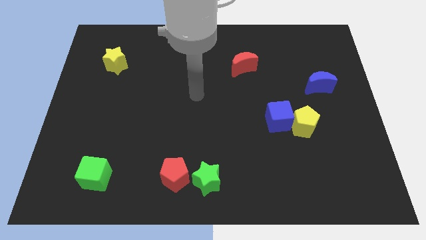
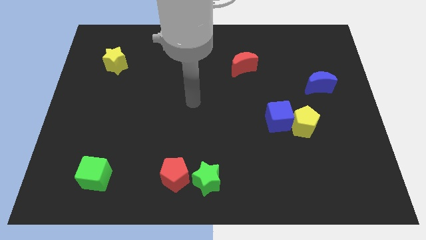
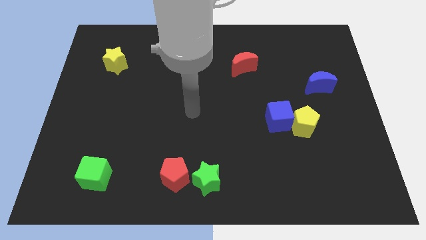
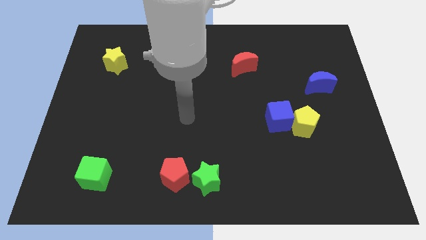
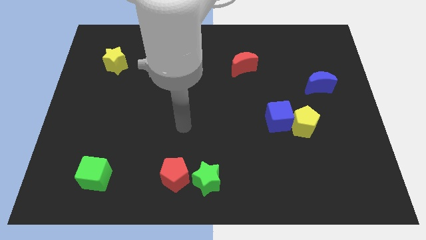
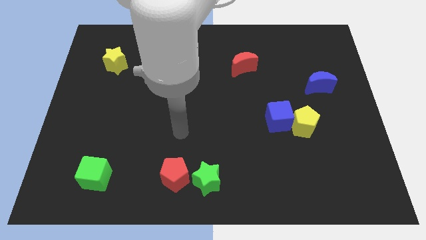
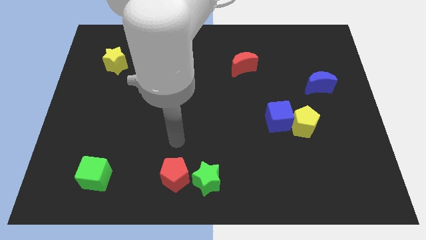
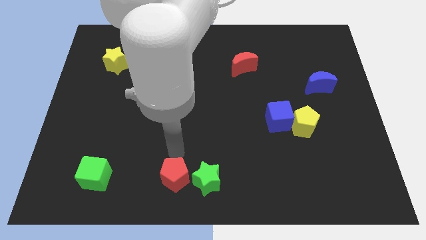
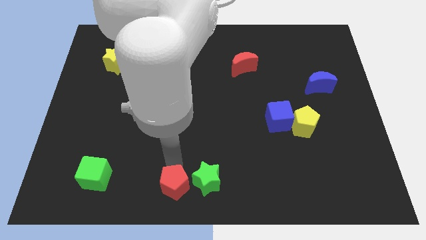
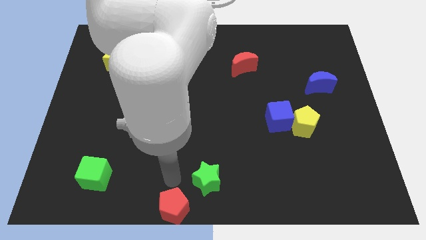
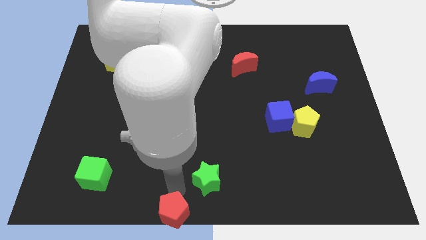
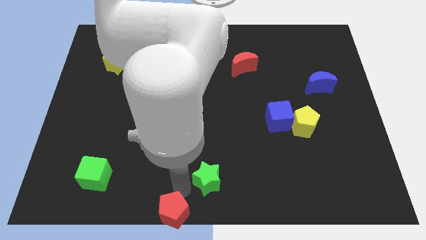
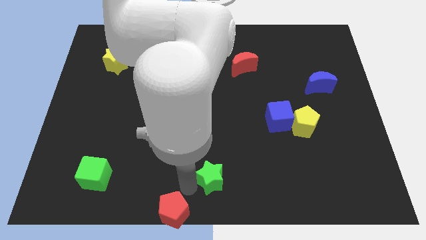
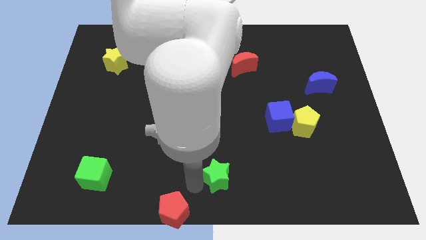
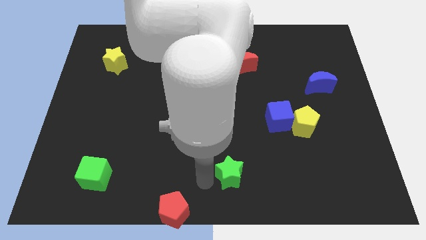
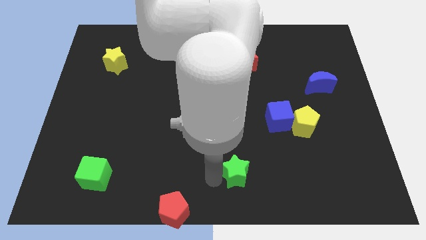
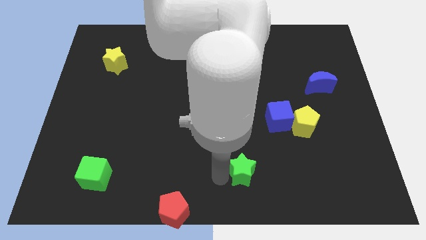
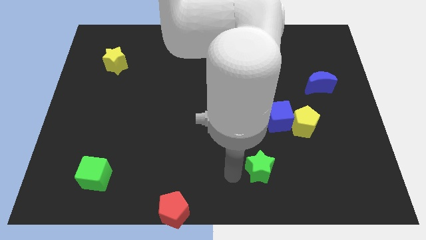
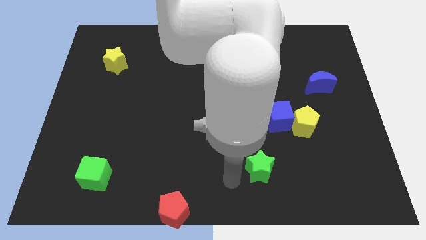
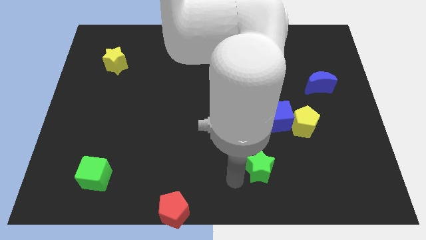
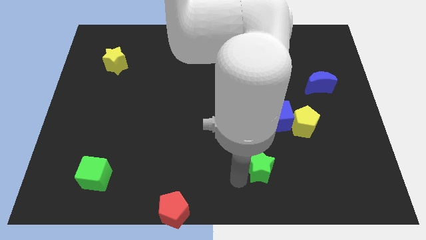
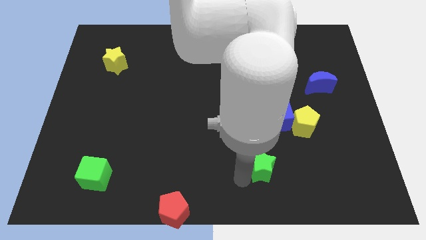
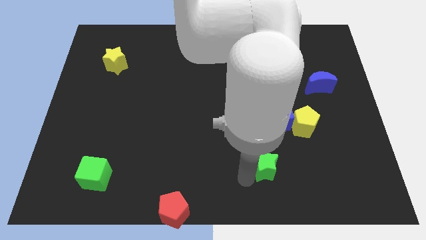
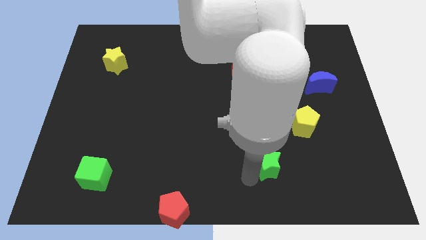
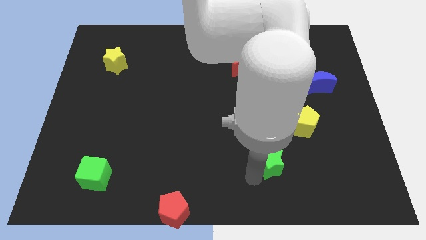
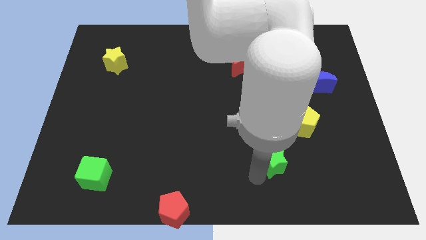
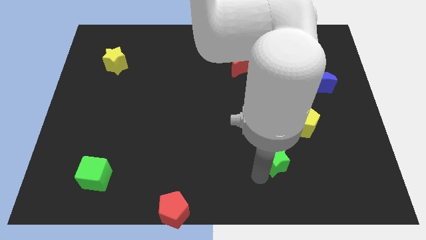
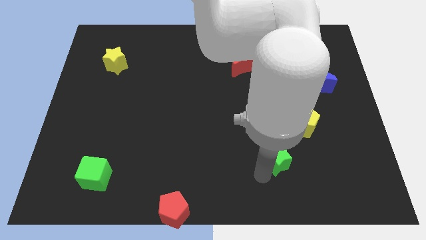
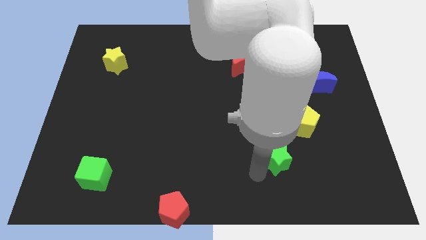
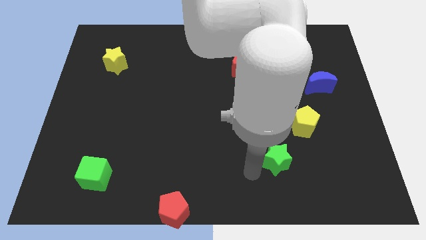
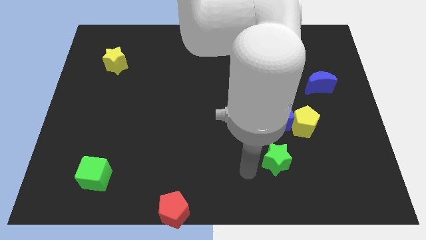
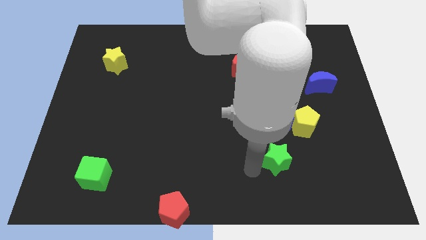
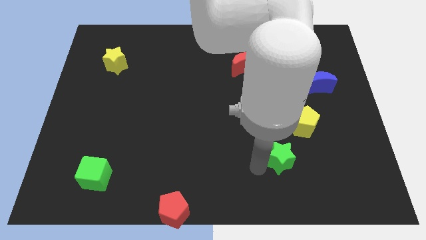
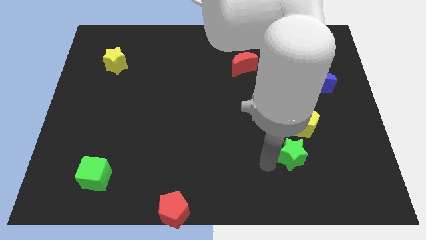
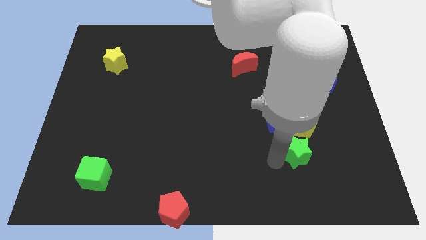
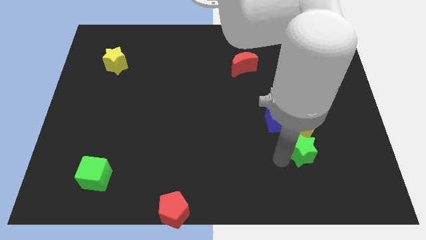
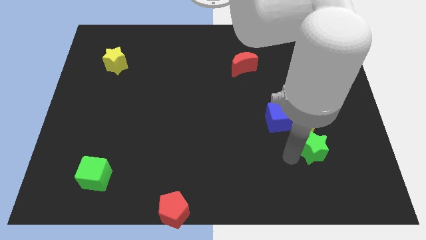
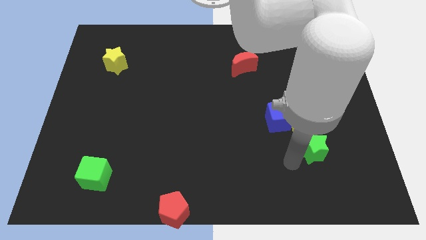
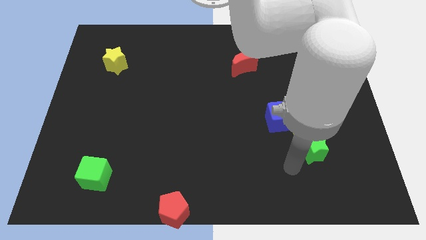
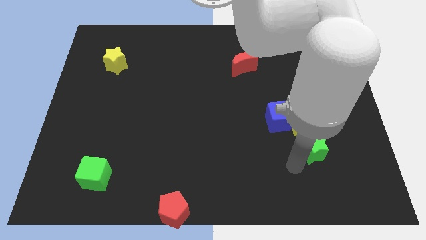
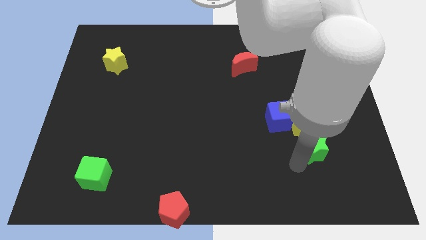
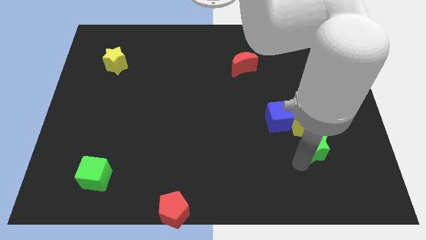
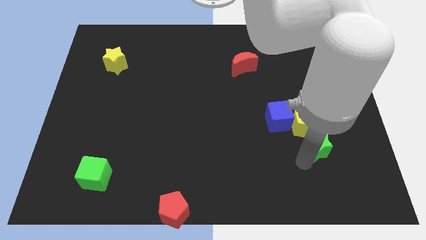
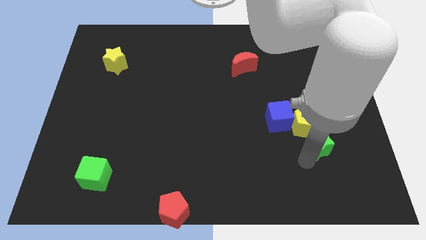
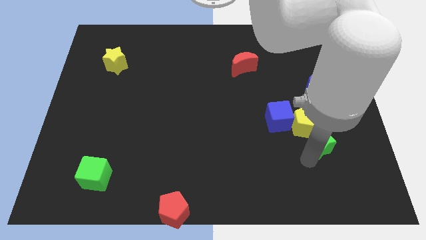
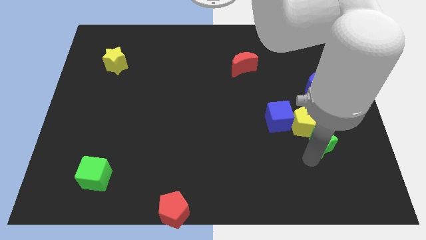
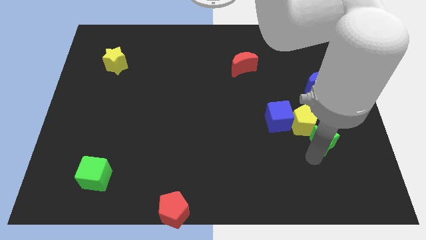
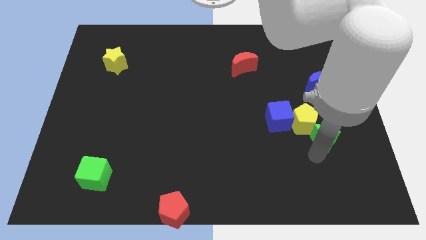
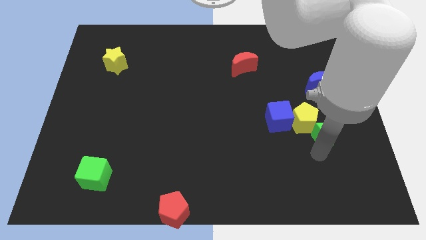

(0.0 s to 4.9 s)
push the green star to the right of the blue cube

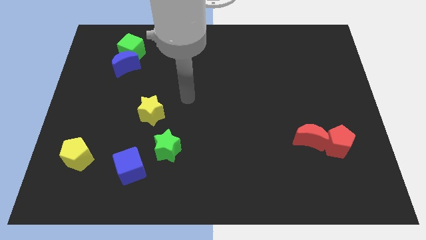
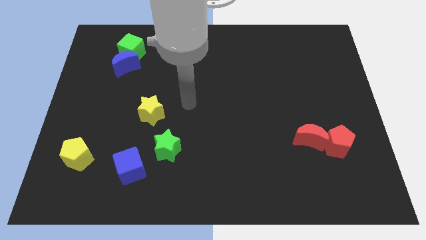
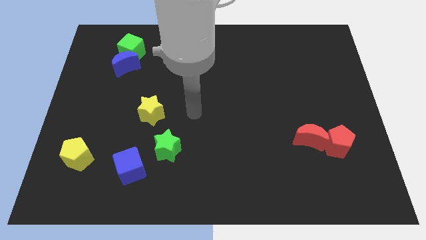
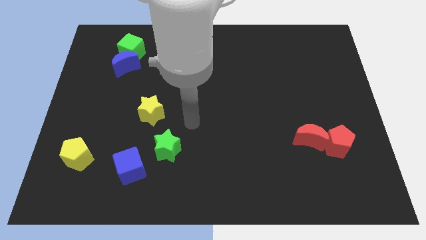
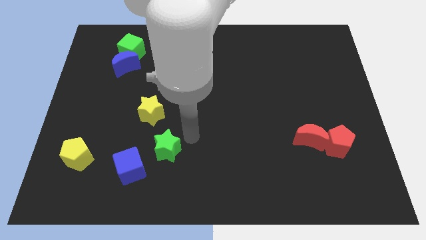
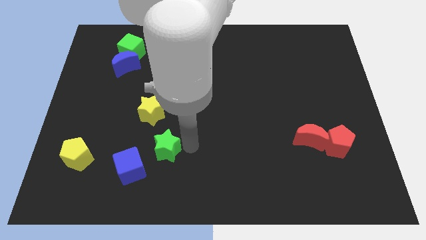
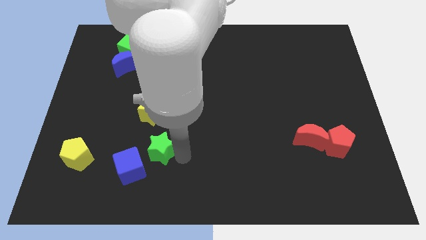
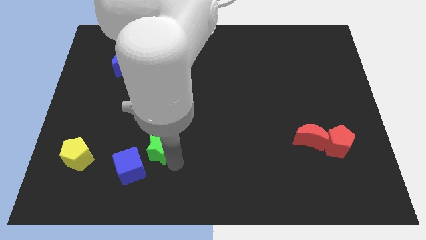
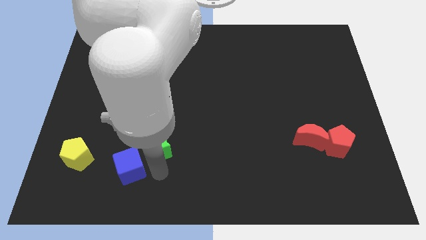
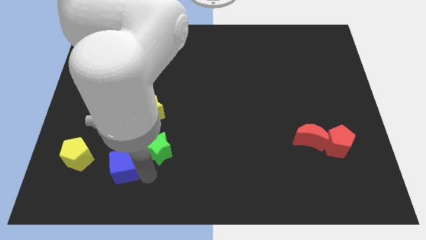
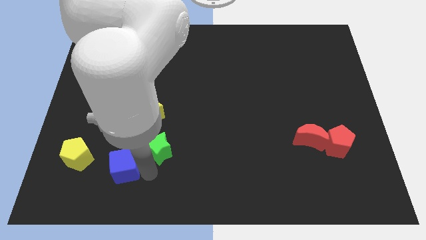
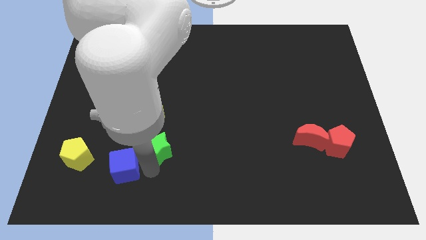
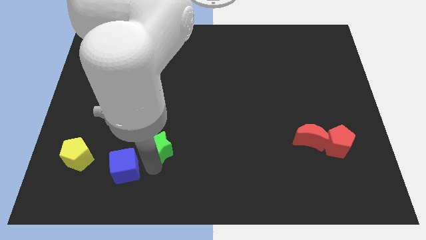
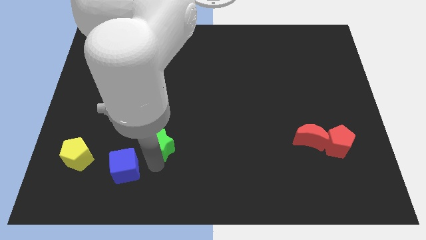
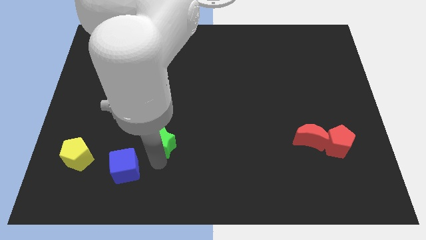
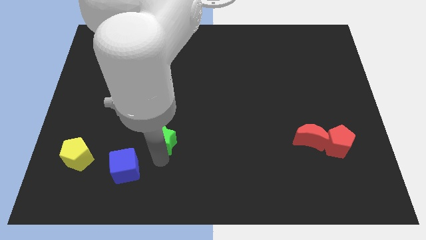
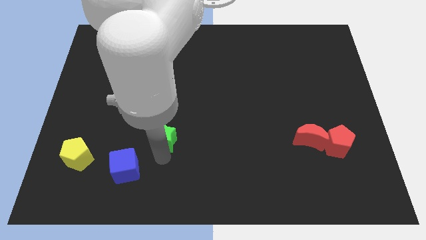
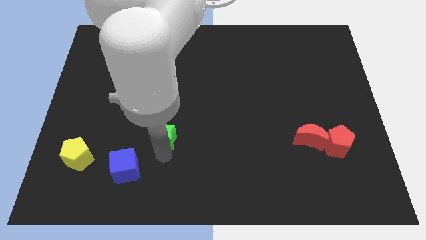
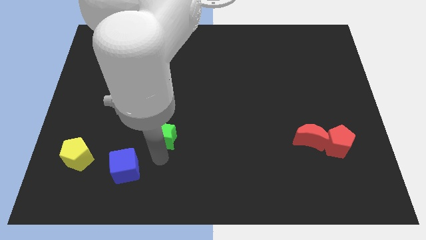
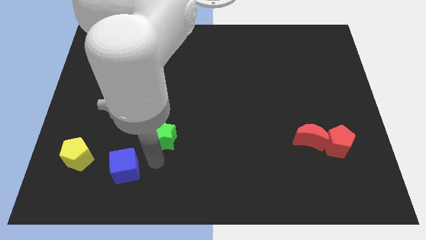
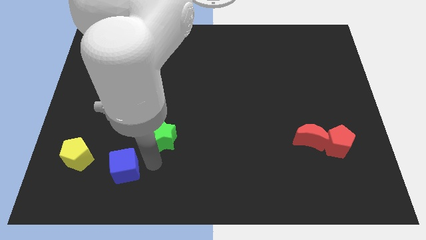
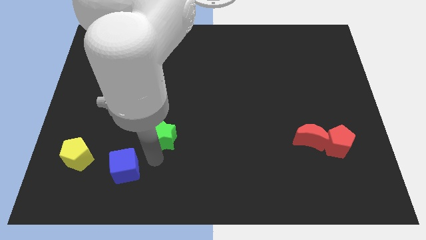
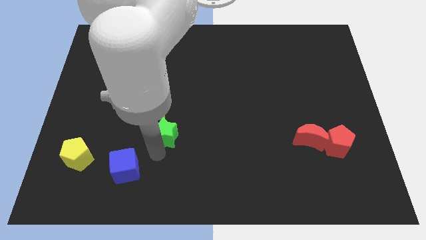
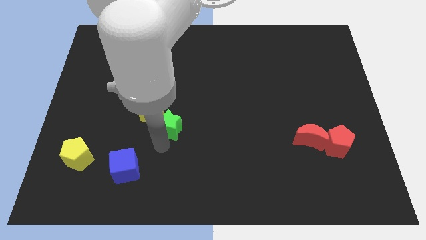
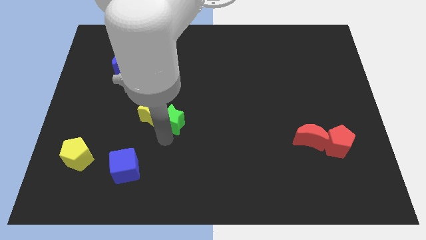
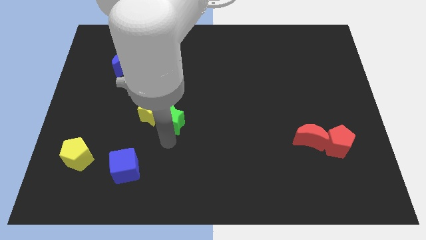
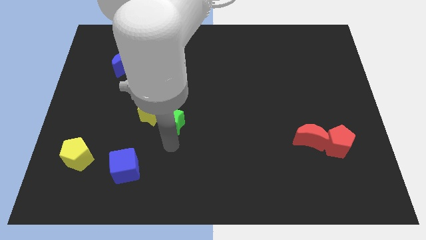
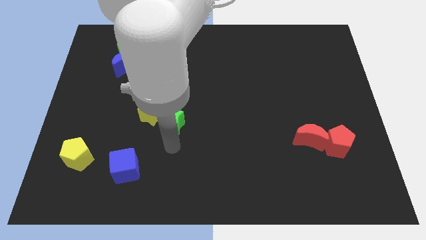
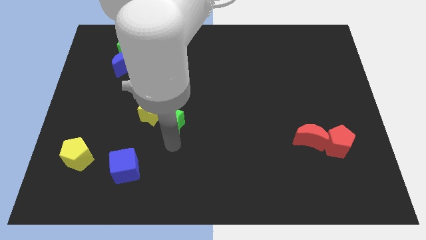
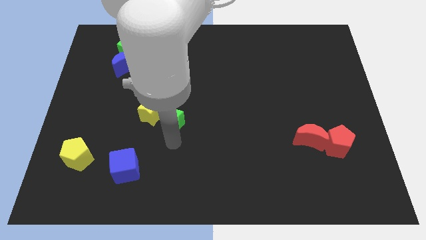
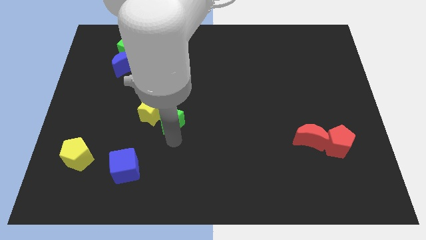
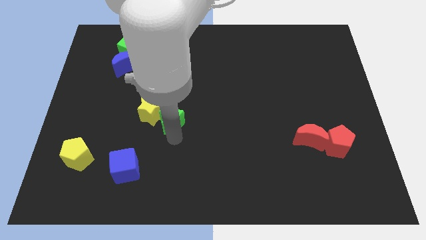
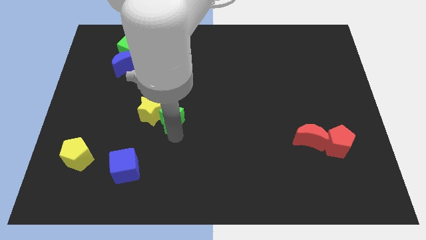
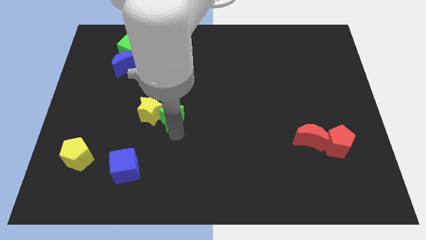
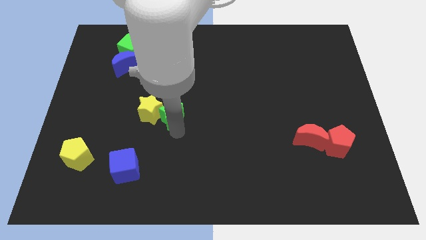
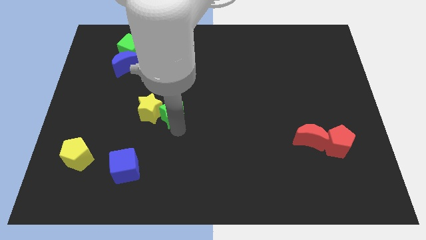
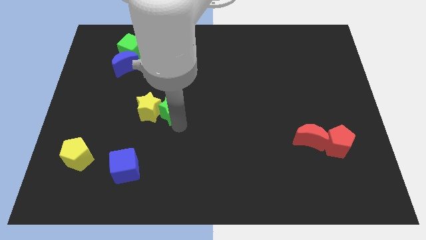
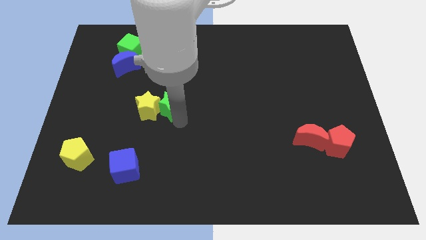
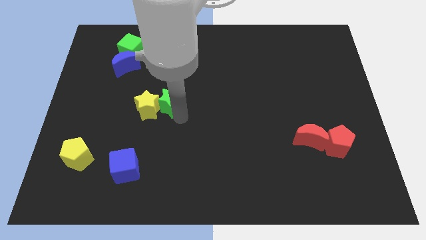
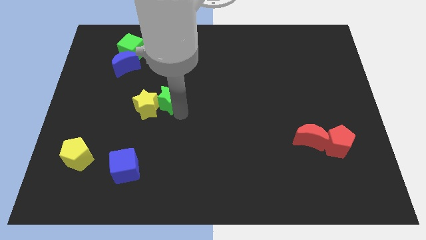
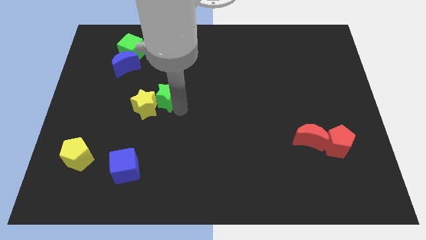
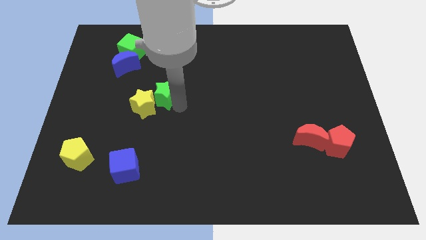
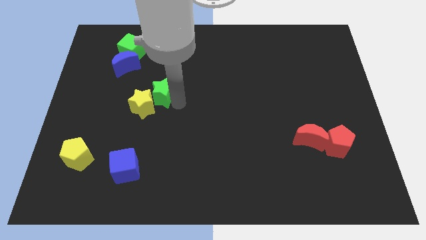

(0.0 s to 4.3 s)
push the green star above the yellow star
